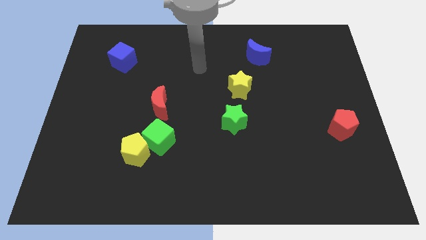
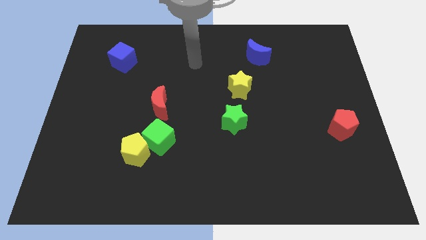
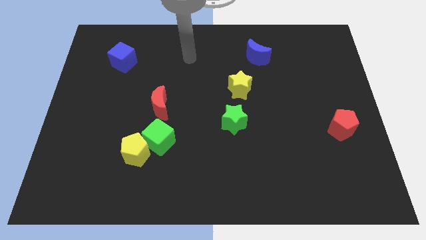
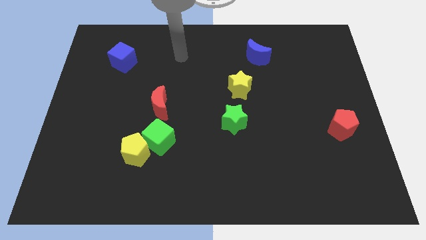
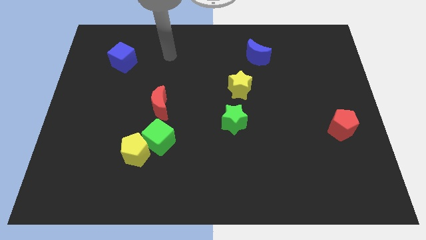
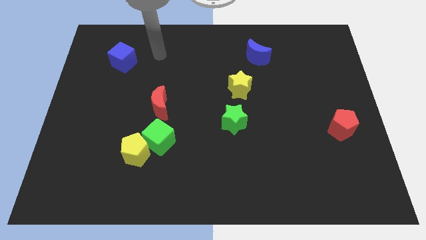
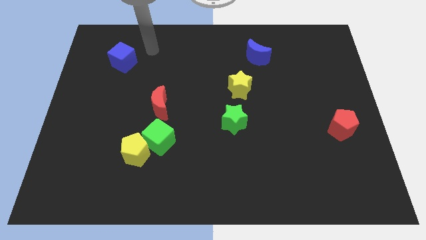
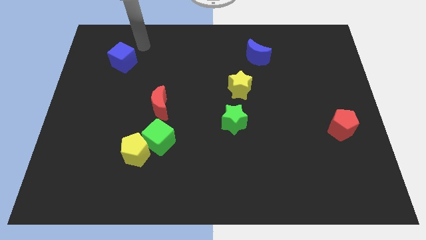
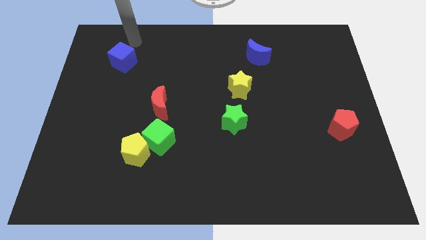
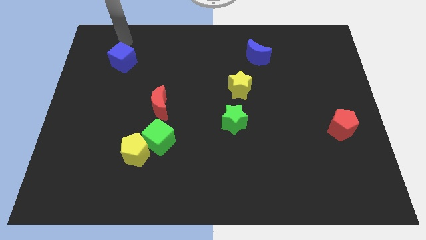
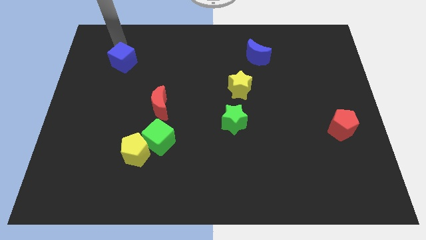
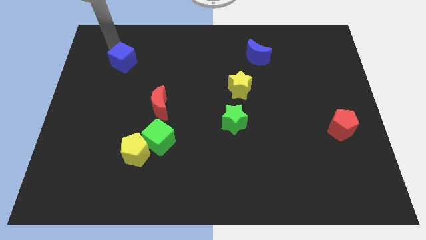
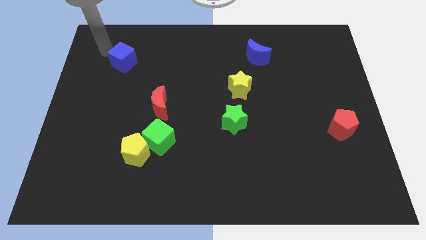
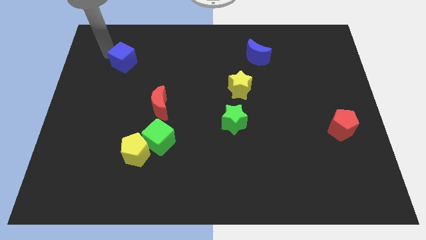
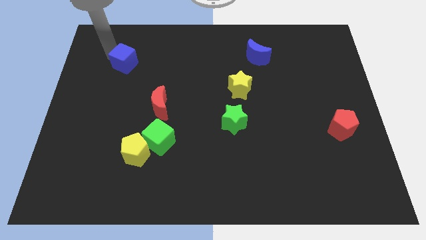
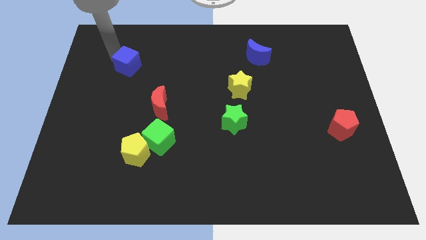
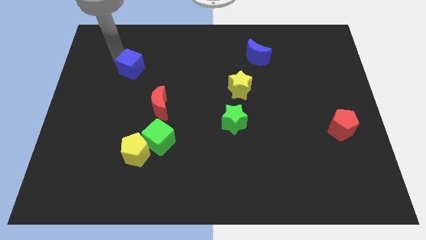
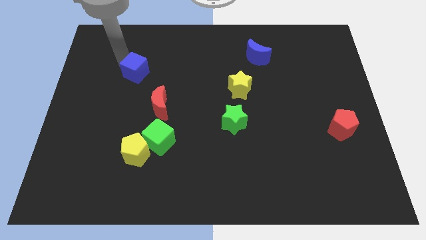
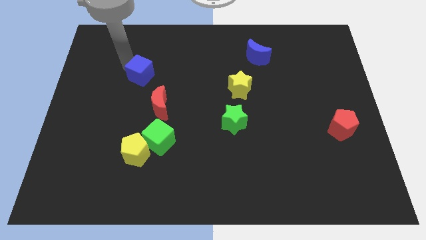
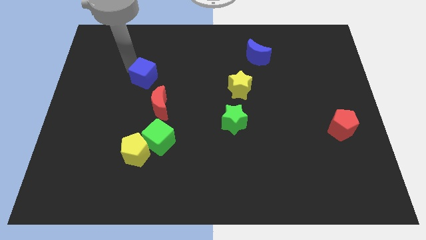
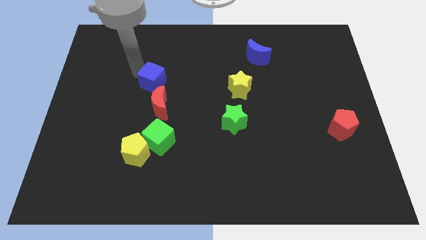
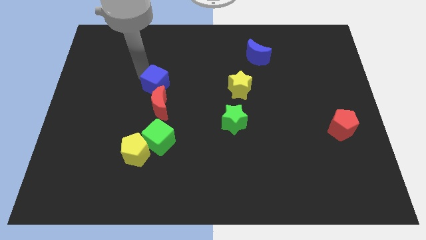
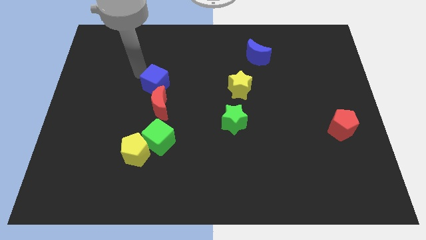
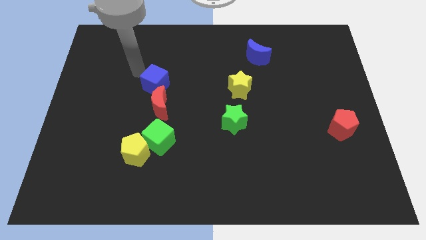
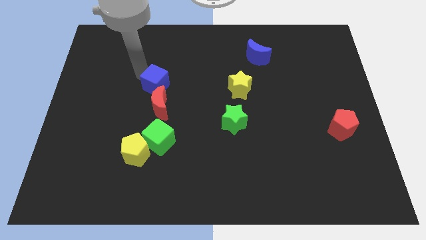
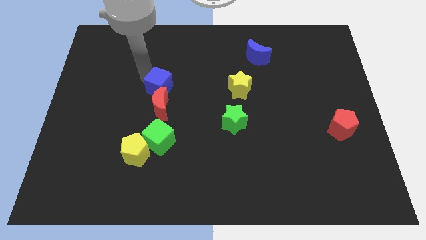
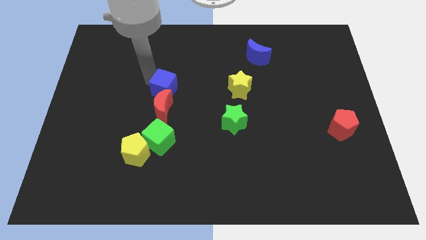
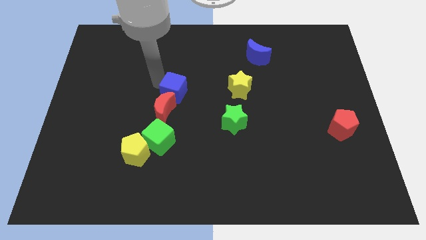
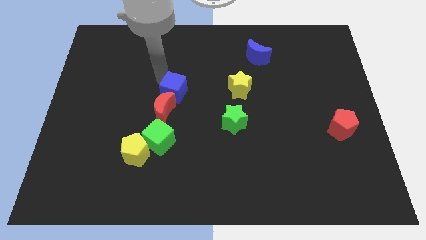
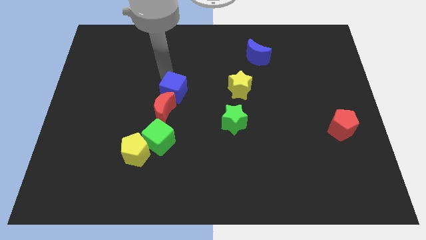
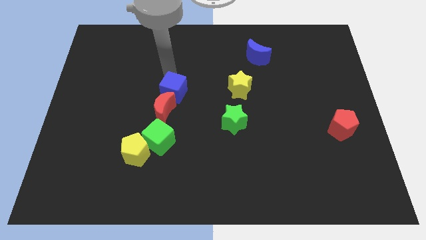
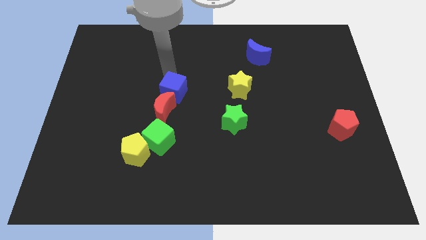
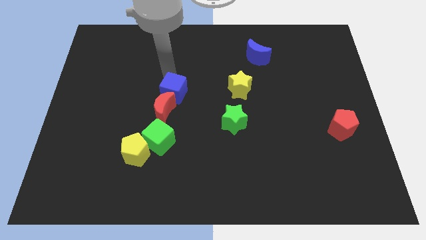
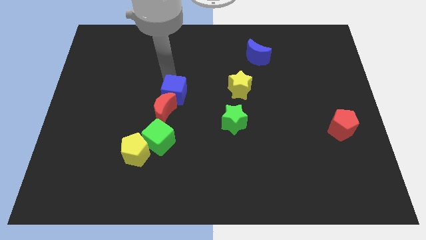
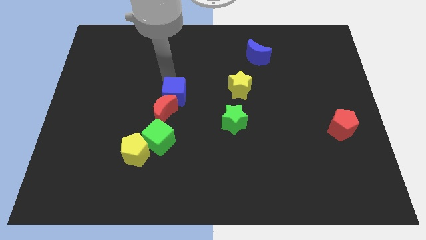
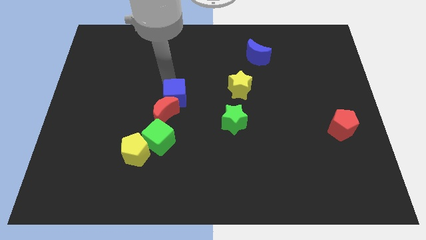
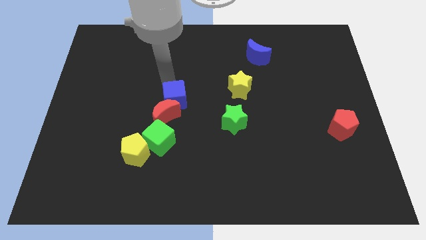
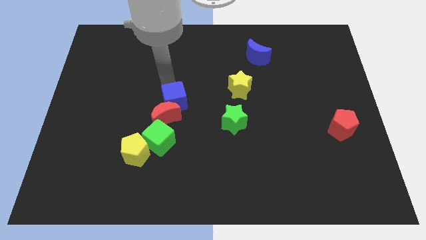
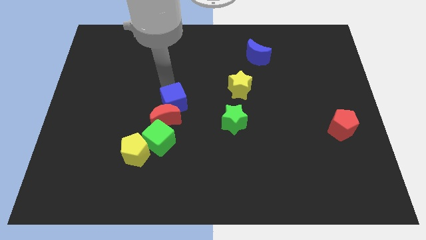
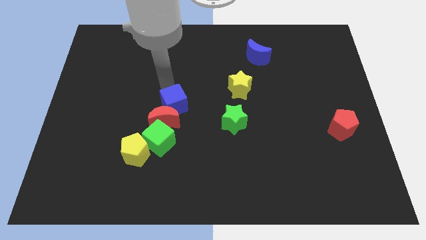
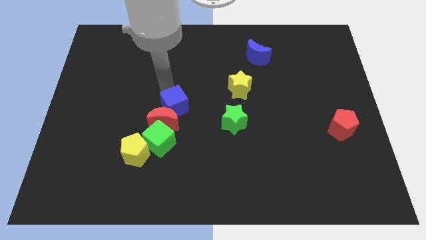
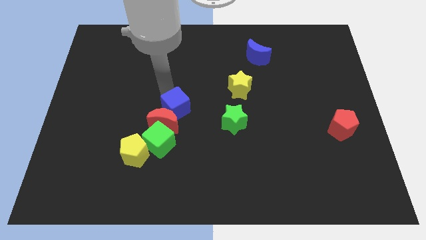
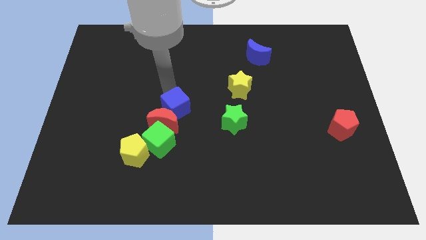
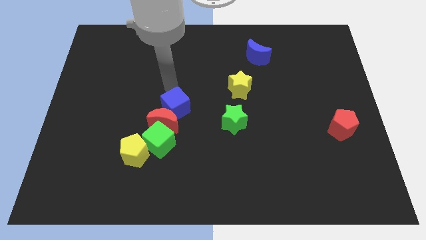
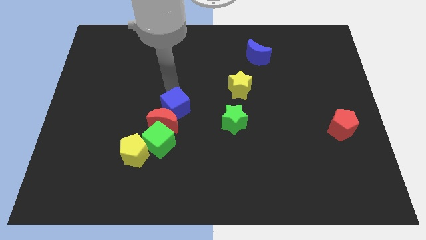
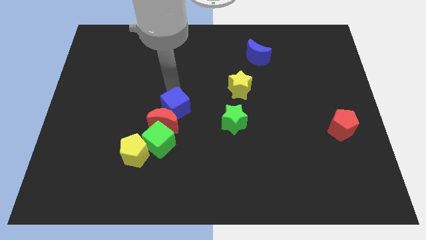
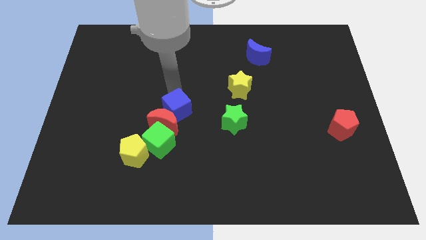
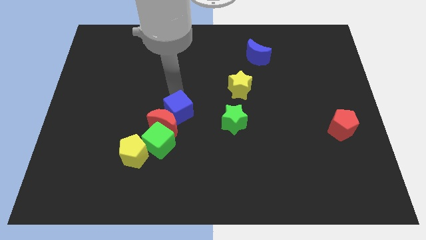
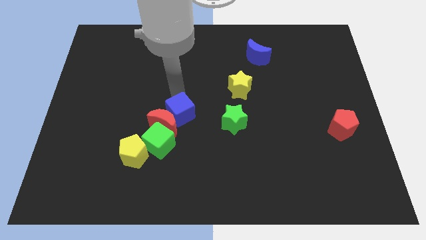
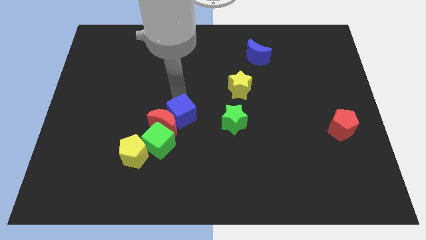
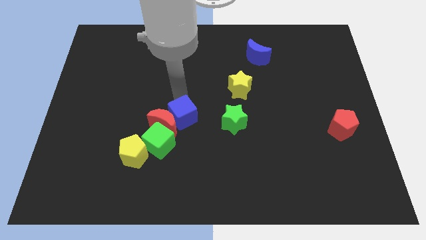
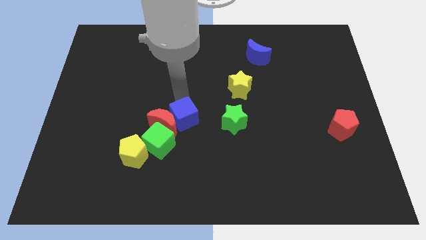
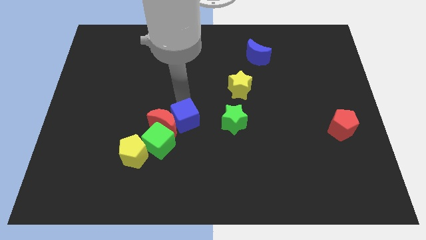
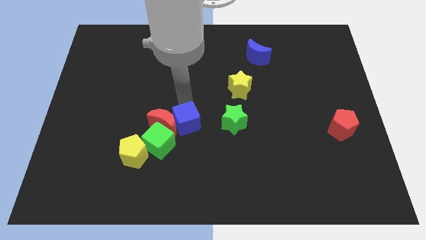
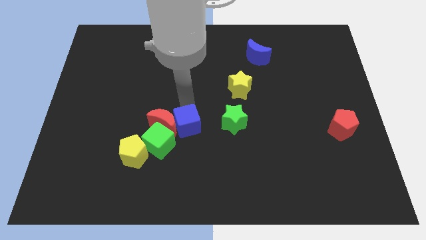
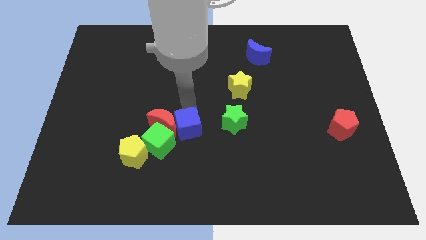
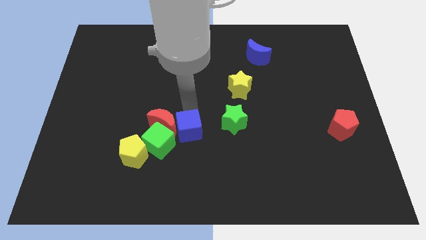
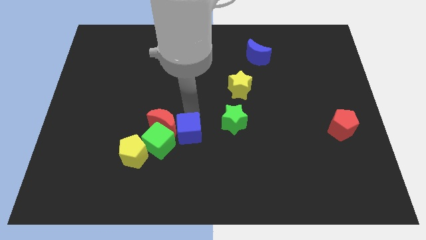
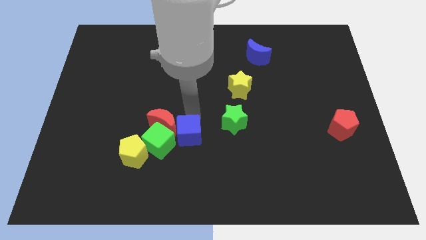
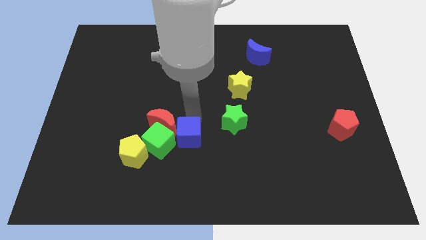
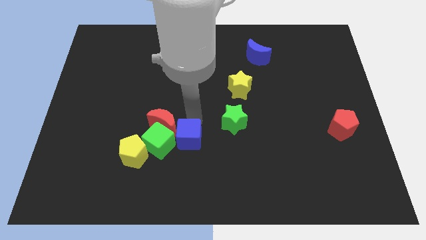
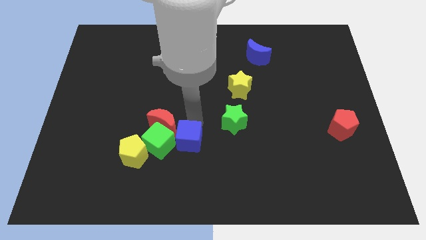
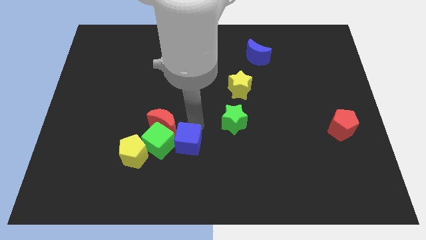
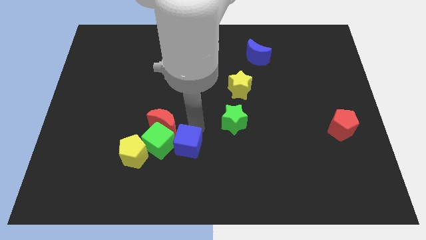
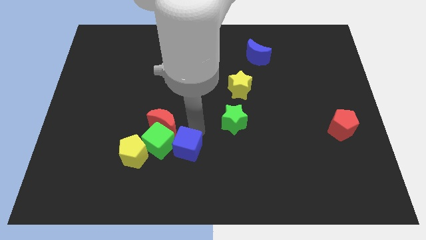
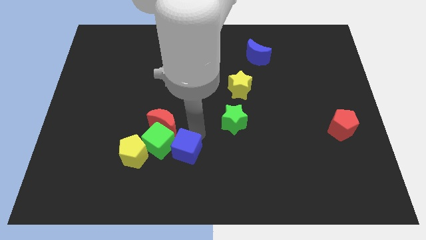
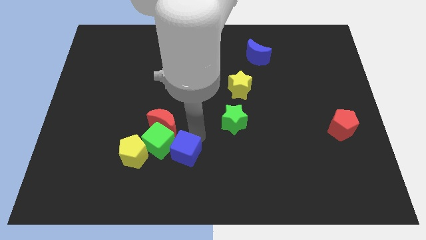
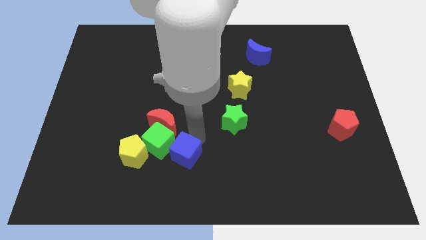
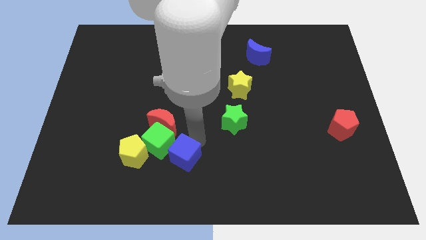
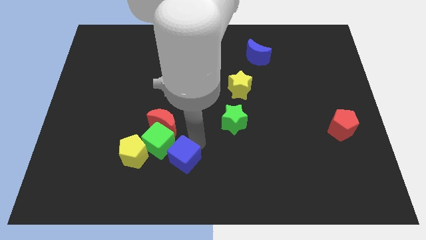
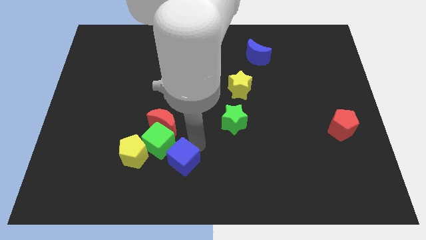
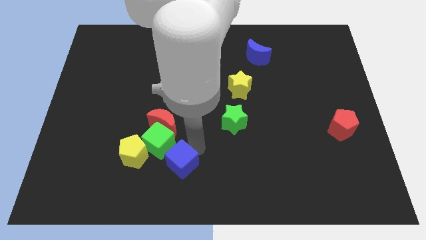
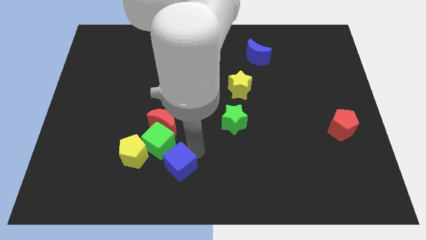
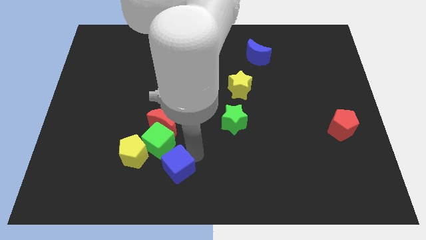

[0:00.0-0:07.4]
move the blue cube diagonally down and to the right of the yellow pentagon

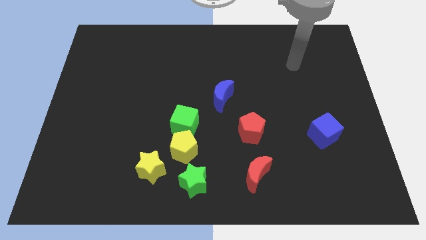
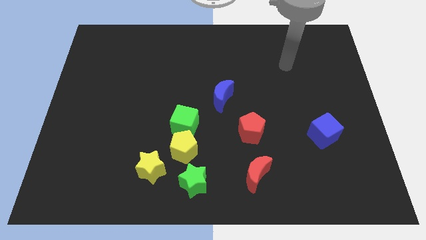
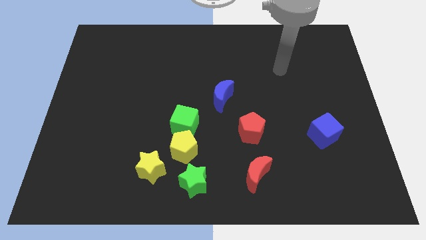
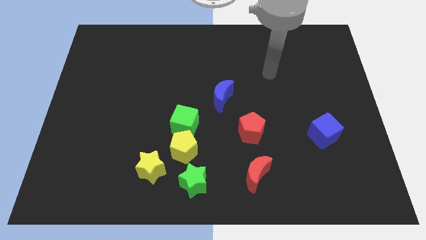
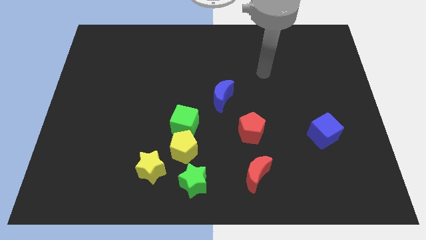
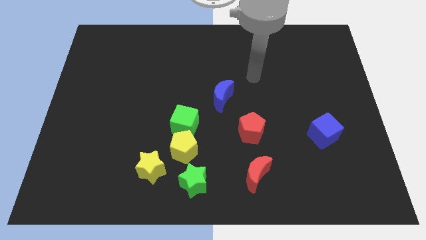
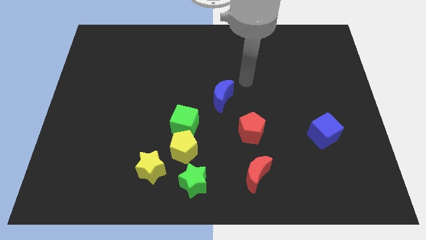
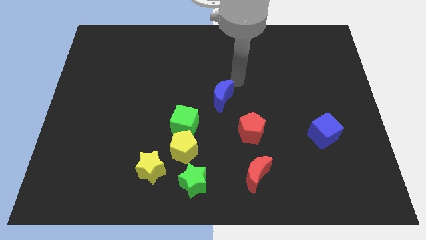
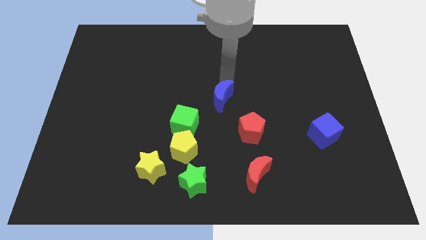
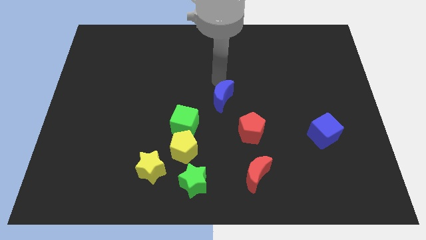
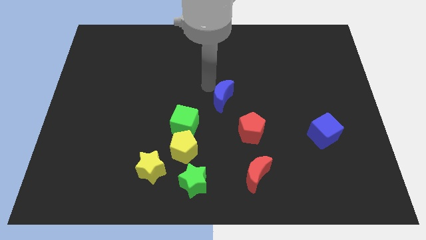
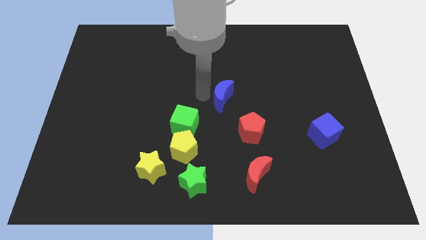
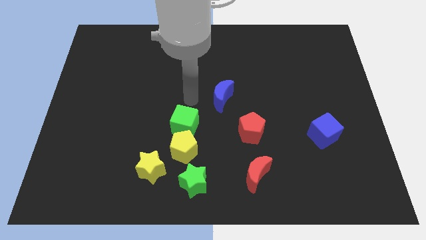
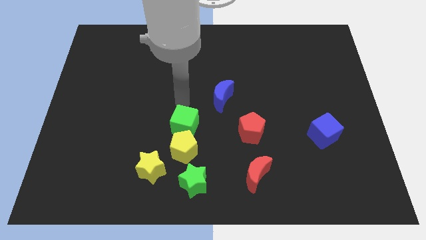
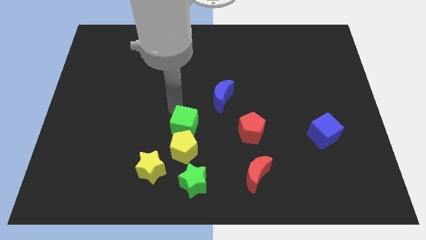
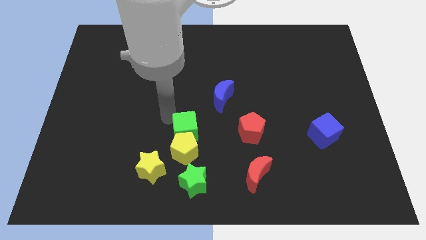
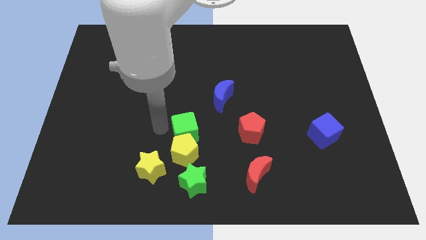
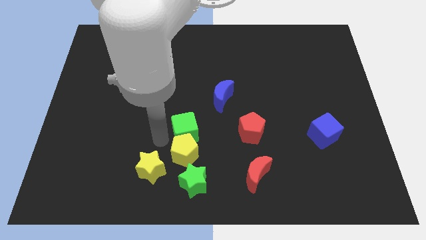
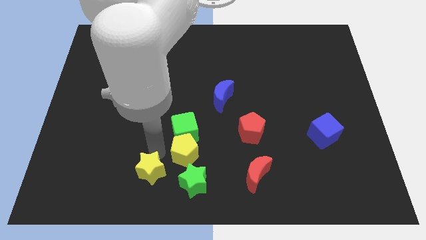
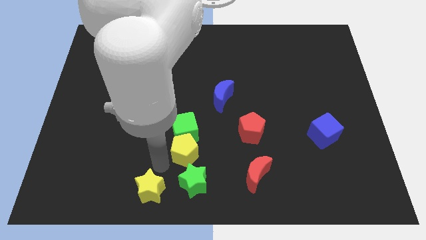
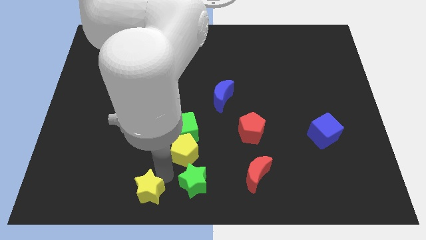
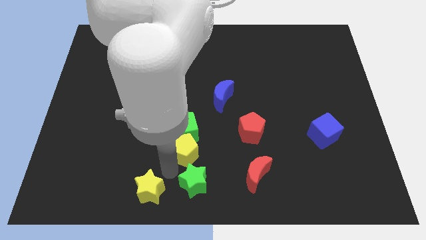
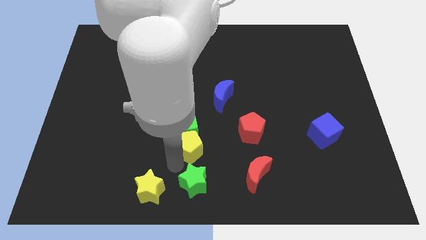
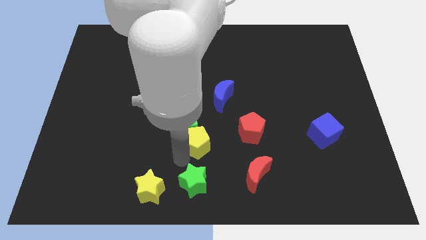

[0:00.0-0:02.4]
move the yellow pentagon left of the red pentagon
